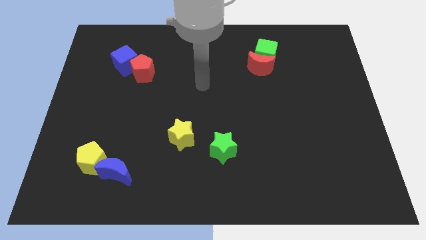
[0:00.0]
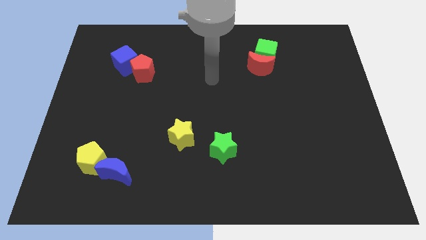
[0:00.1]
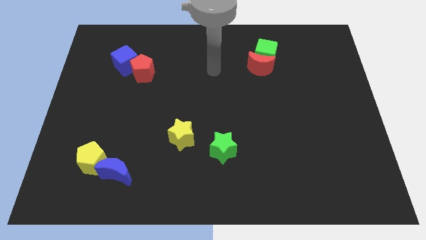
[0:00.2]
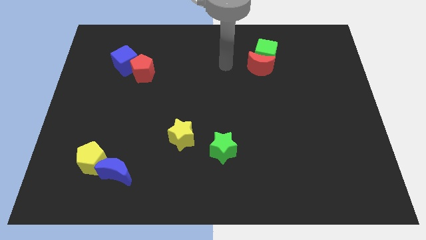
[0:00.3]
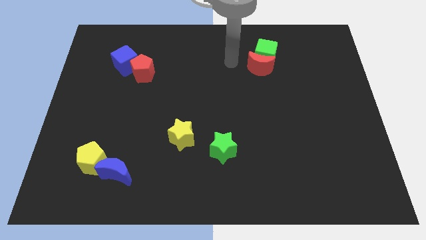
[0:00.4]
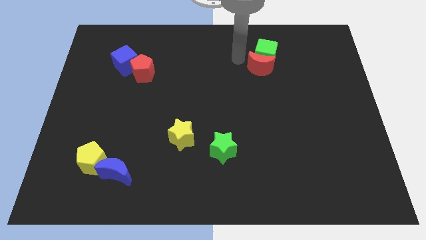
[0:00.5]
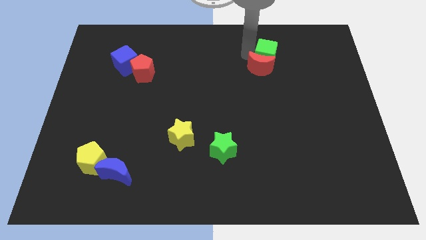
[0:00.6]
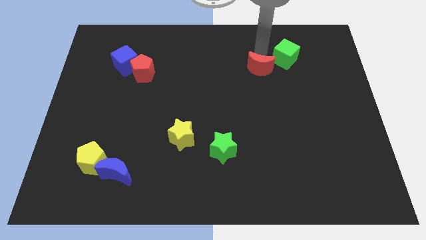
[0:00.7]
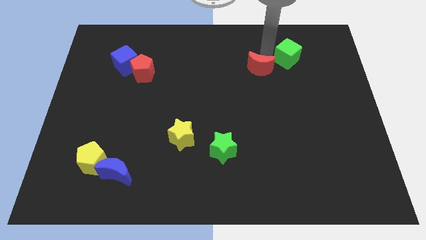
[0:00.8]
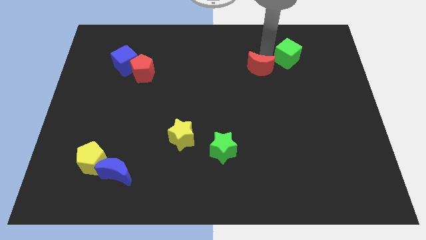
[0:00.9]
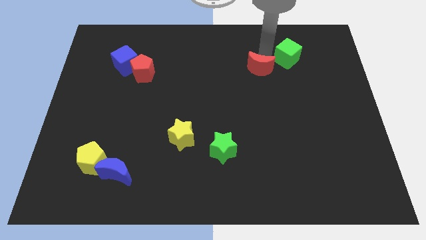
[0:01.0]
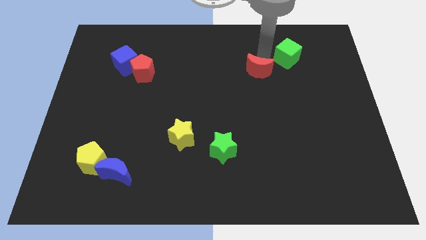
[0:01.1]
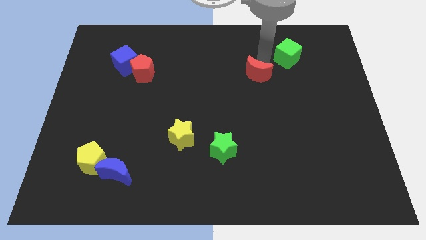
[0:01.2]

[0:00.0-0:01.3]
move the red moon away from the green cube

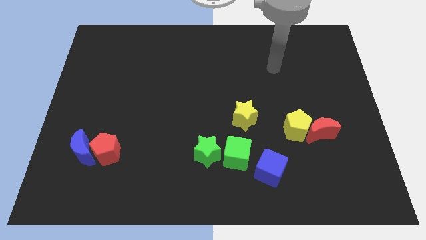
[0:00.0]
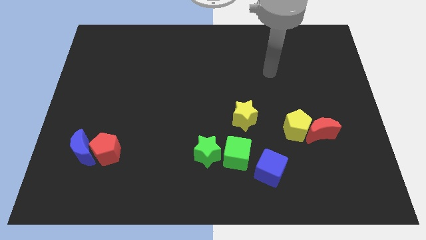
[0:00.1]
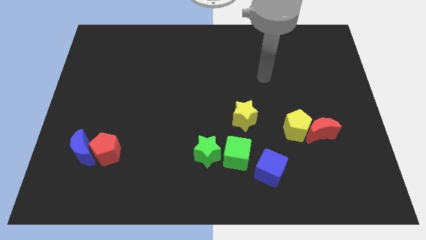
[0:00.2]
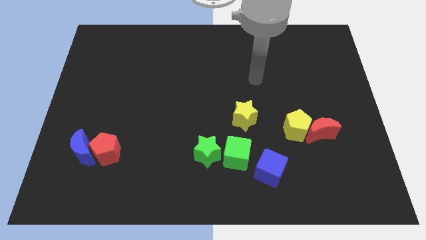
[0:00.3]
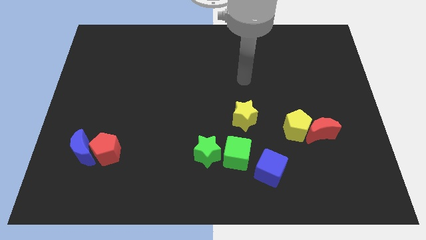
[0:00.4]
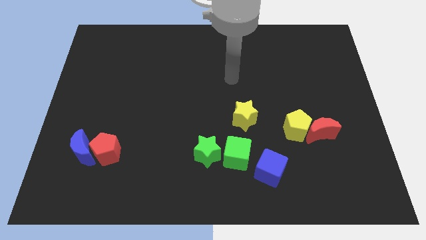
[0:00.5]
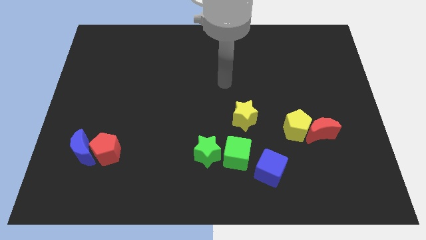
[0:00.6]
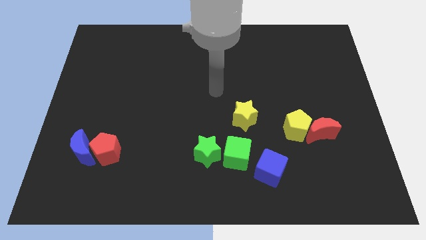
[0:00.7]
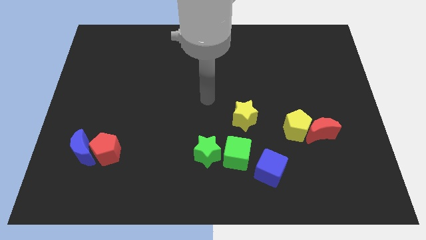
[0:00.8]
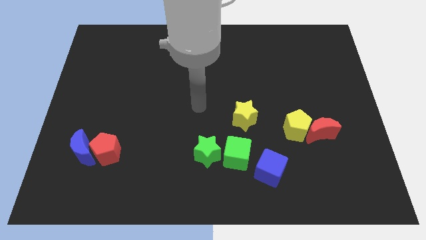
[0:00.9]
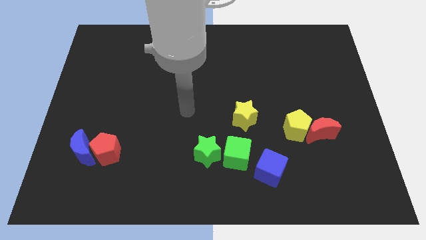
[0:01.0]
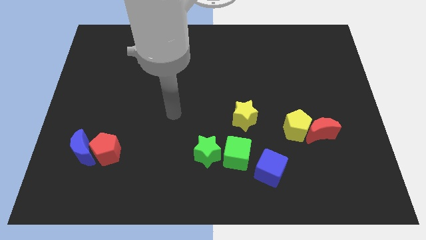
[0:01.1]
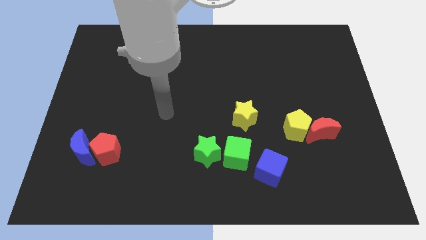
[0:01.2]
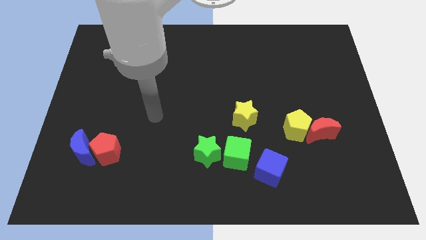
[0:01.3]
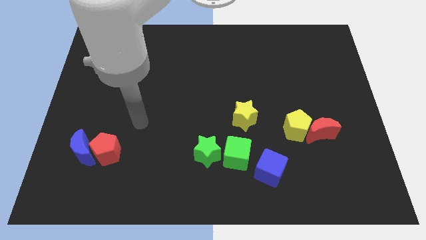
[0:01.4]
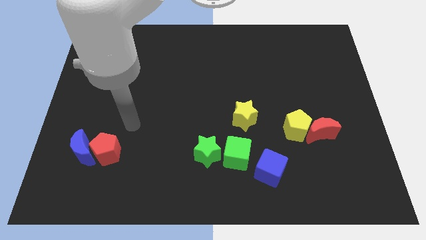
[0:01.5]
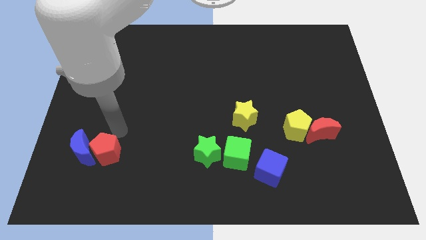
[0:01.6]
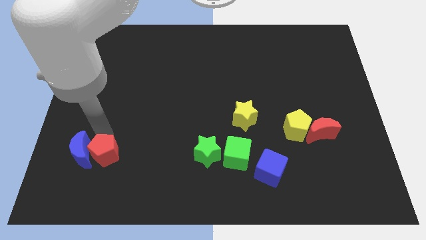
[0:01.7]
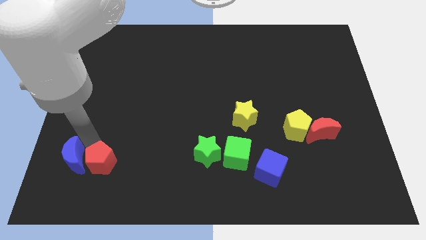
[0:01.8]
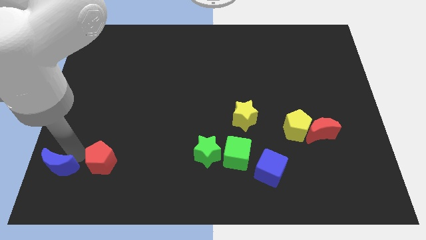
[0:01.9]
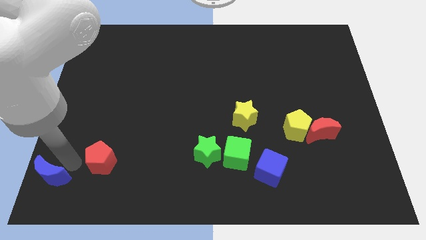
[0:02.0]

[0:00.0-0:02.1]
move the red pentagon away from the blue moon

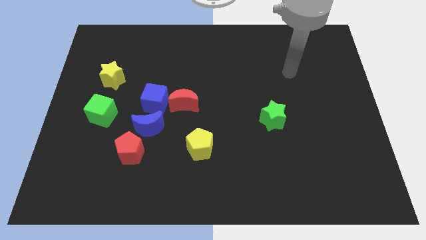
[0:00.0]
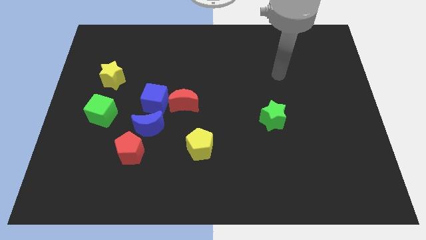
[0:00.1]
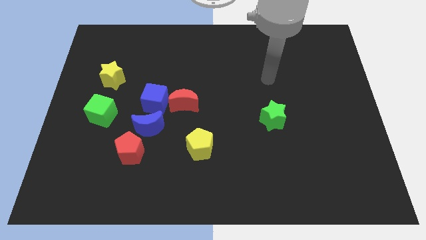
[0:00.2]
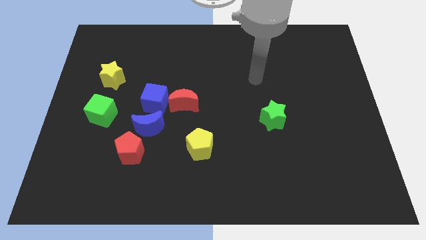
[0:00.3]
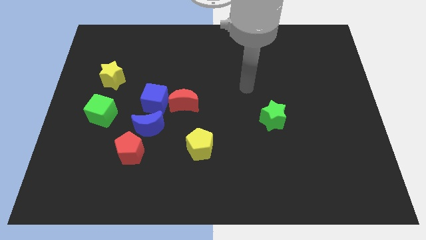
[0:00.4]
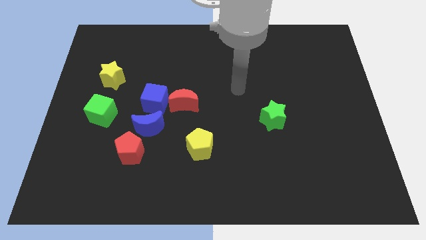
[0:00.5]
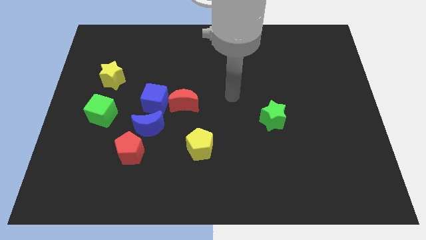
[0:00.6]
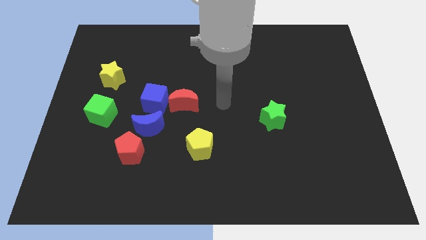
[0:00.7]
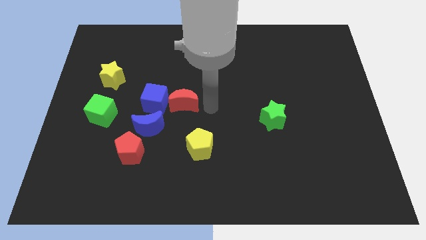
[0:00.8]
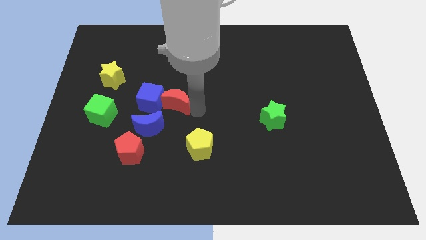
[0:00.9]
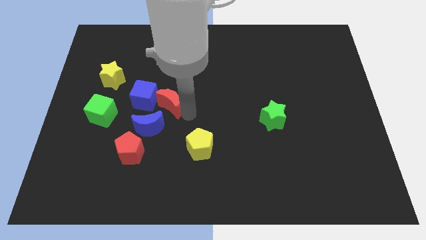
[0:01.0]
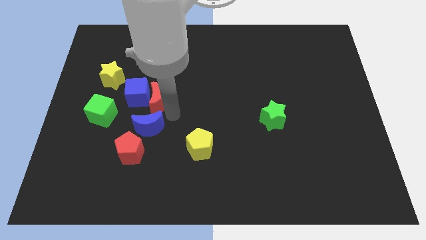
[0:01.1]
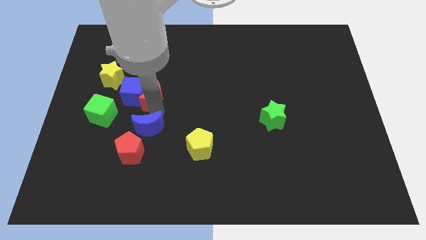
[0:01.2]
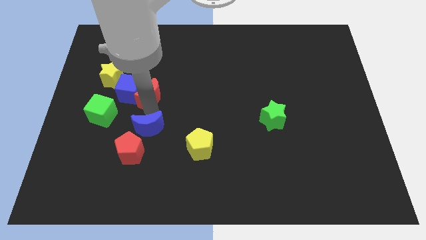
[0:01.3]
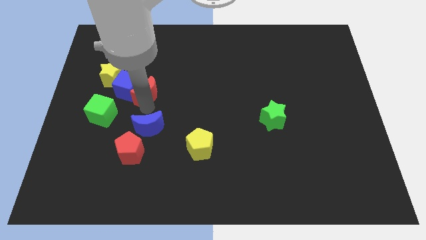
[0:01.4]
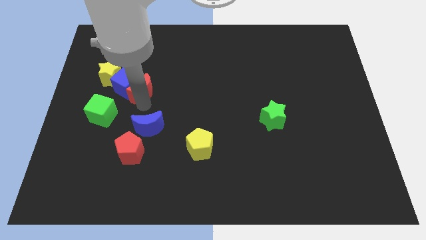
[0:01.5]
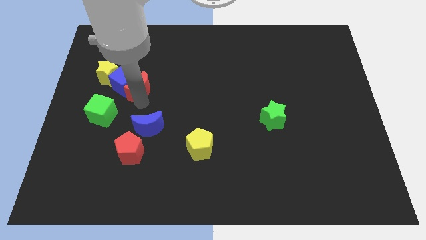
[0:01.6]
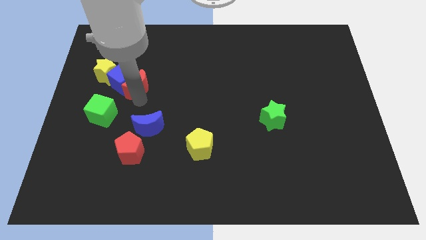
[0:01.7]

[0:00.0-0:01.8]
pull the blue cube apart from the red moon and blue moon

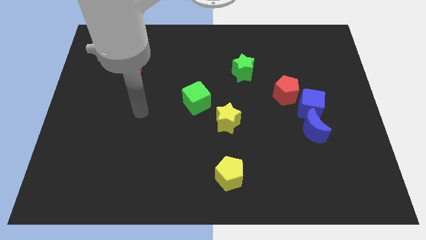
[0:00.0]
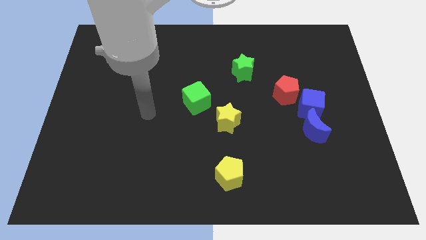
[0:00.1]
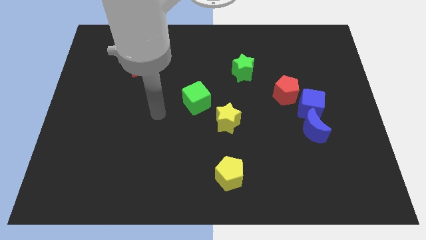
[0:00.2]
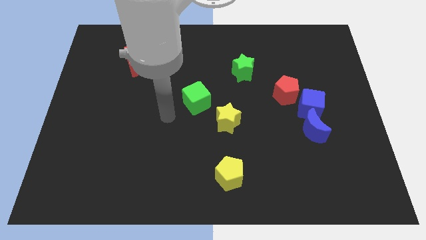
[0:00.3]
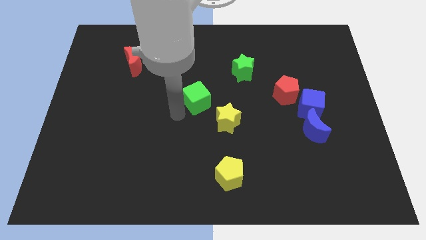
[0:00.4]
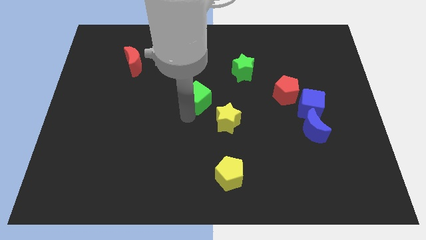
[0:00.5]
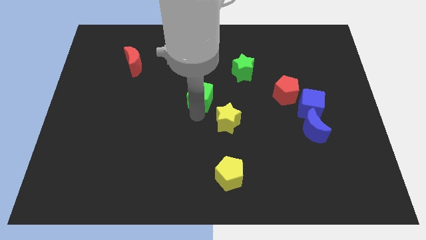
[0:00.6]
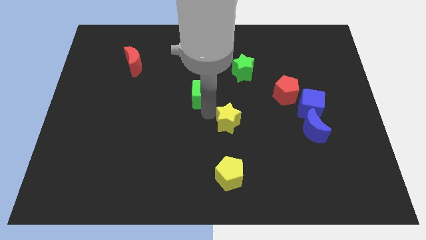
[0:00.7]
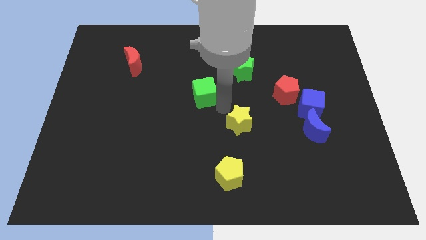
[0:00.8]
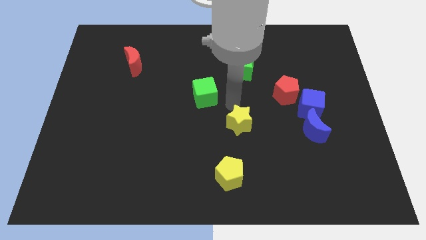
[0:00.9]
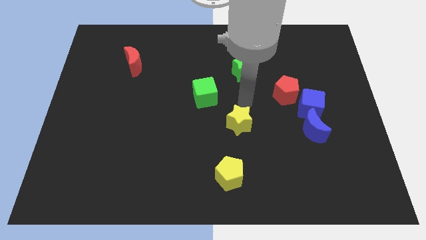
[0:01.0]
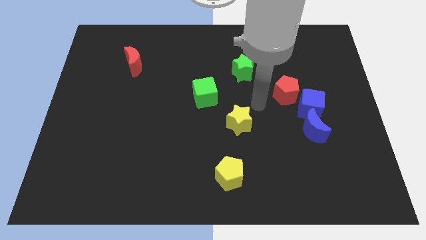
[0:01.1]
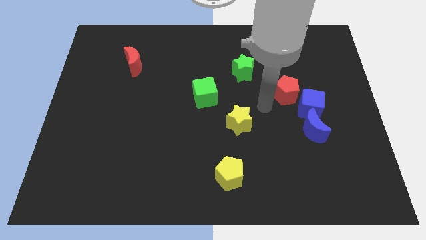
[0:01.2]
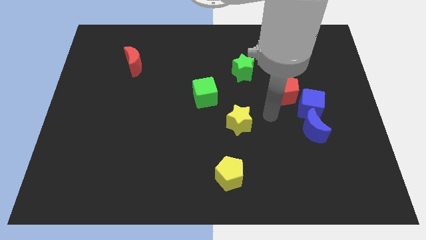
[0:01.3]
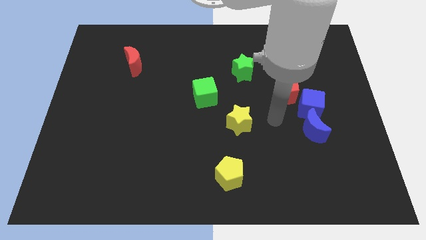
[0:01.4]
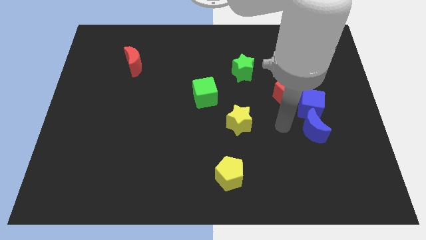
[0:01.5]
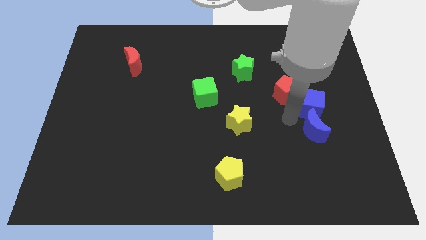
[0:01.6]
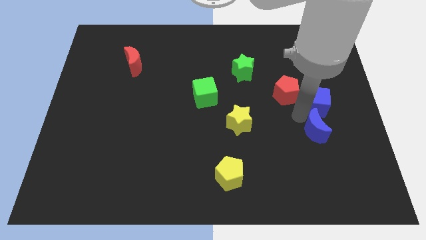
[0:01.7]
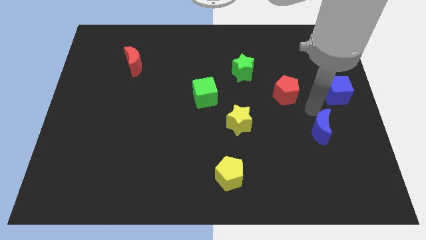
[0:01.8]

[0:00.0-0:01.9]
separate the blue moon from the blue cube

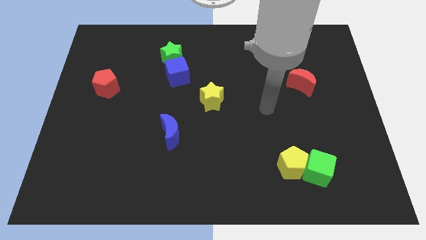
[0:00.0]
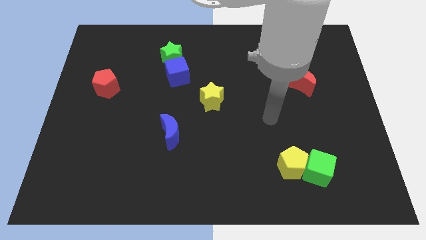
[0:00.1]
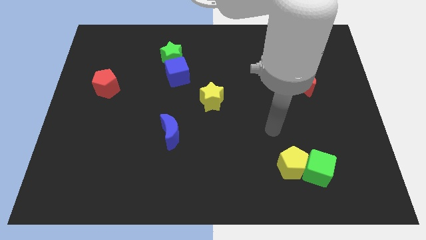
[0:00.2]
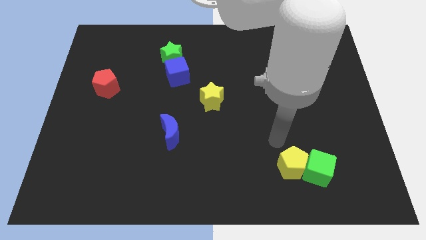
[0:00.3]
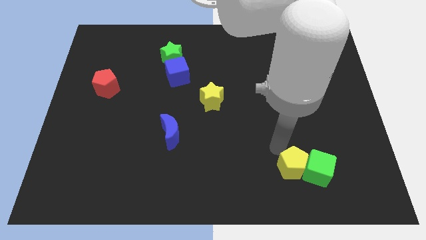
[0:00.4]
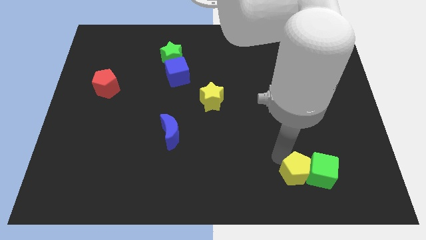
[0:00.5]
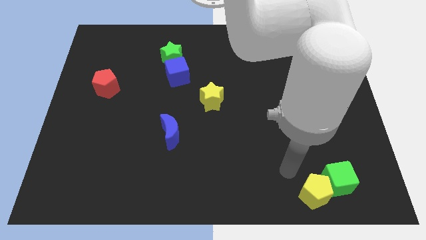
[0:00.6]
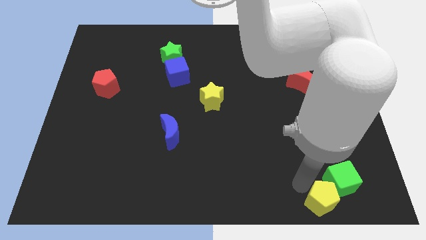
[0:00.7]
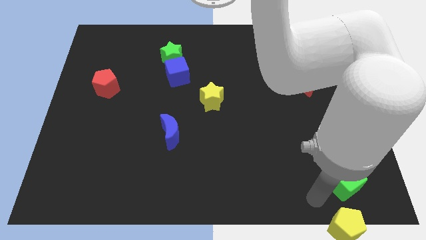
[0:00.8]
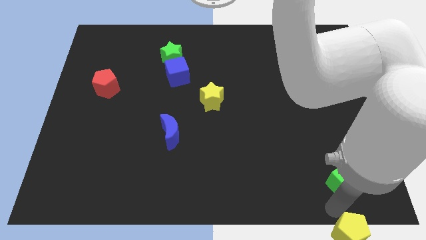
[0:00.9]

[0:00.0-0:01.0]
move the green cube away from the yellow pentagon

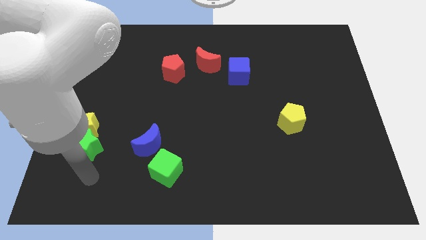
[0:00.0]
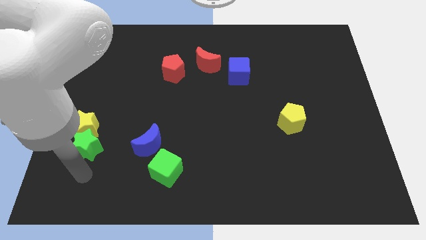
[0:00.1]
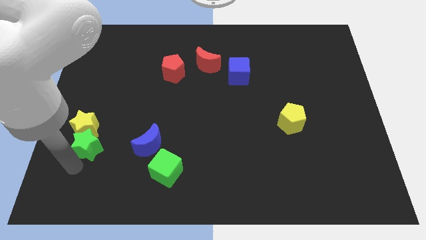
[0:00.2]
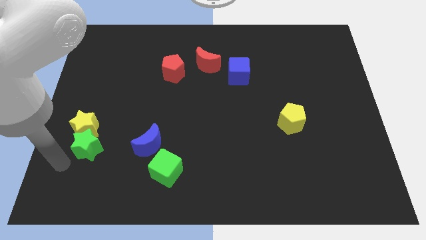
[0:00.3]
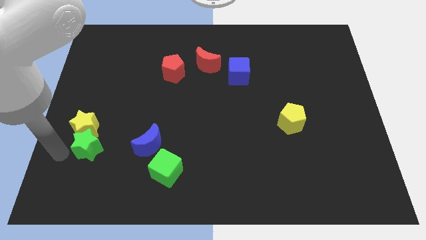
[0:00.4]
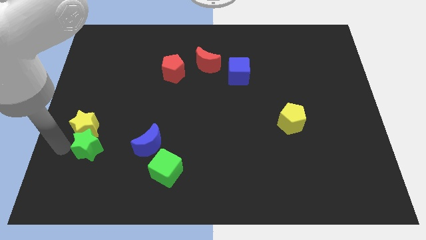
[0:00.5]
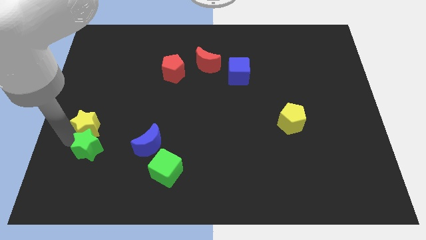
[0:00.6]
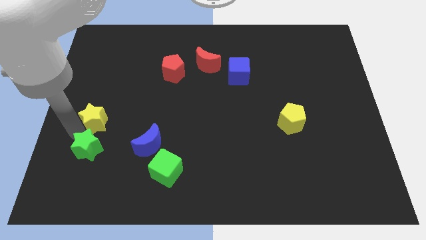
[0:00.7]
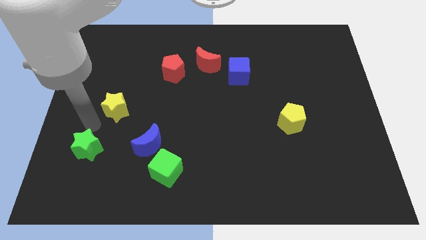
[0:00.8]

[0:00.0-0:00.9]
pull the green star apart from the yellow star

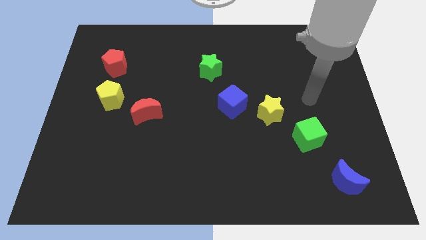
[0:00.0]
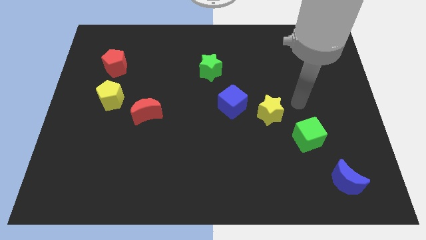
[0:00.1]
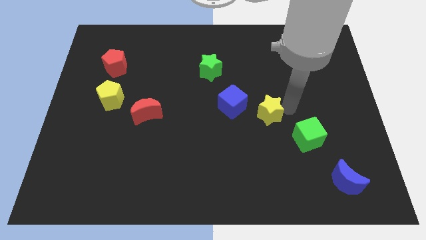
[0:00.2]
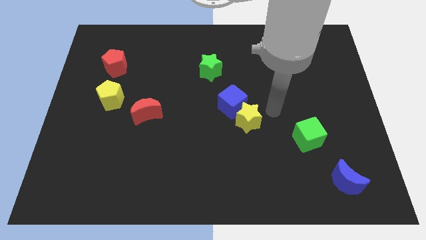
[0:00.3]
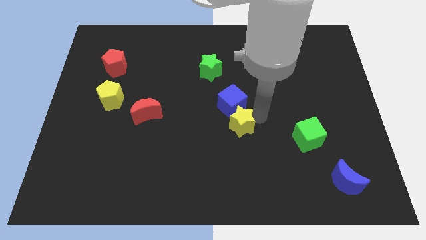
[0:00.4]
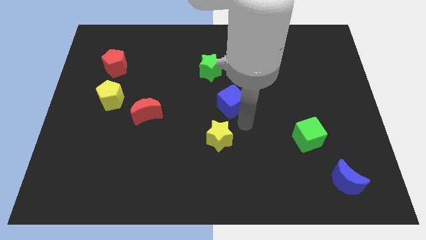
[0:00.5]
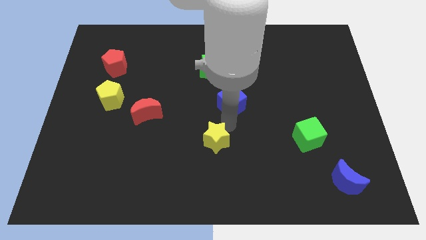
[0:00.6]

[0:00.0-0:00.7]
separate the blue cube from the yellow star
